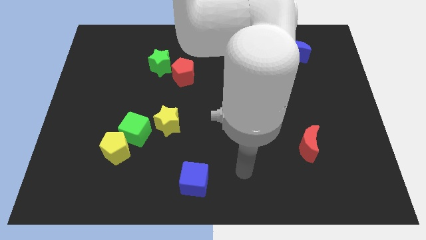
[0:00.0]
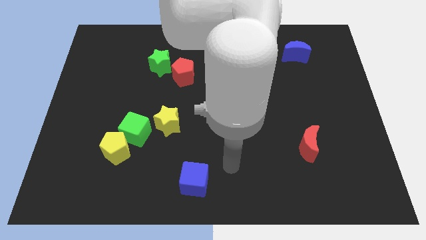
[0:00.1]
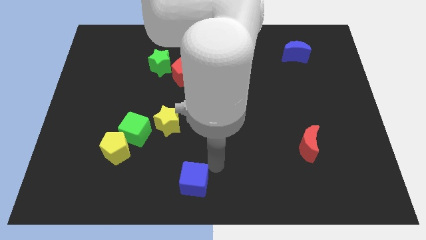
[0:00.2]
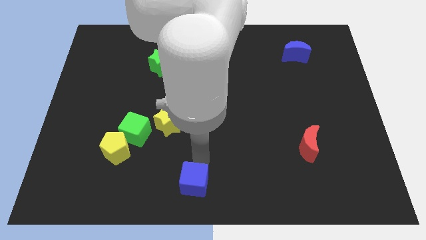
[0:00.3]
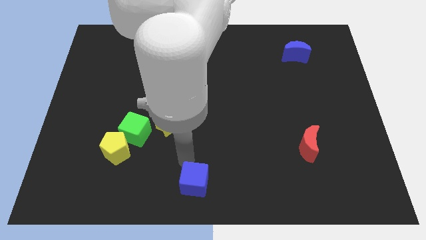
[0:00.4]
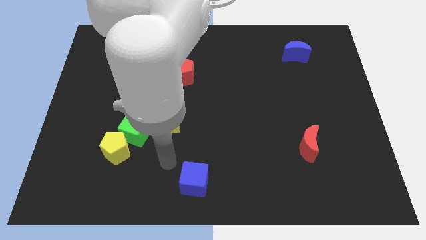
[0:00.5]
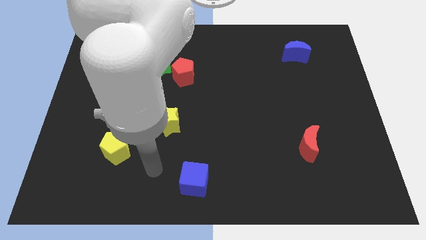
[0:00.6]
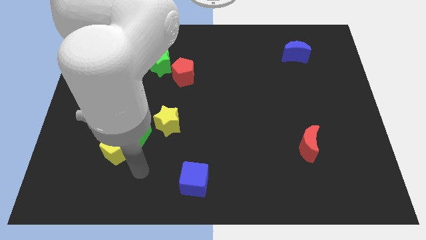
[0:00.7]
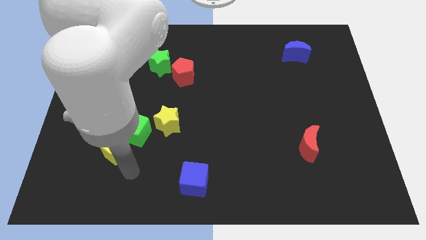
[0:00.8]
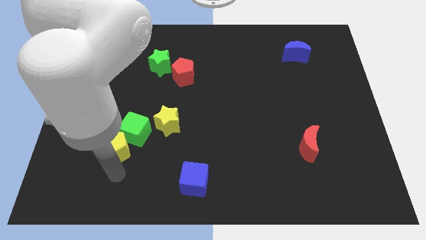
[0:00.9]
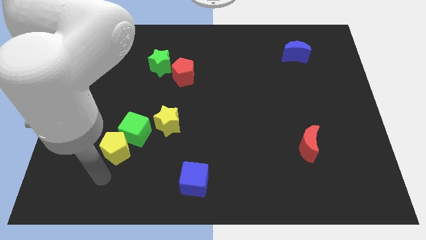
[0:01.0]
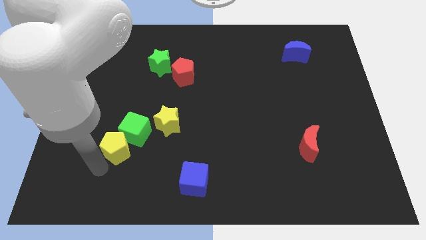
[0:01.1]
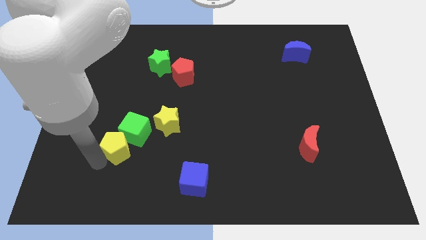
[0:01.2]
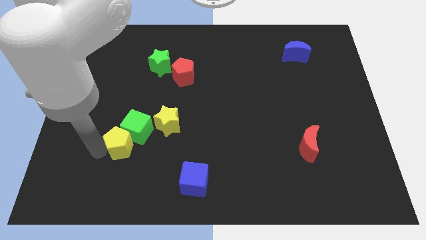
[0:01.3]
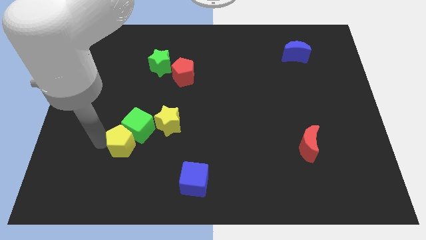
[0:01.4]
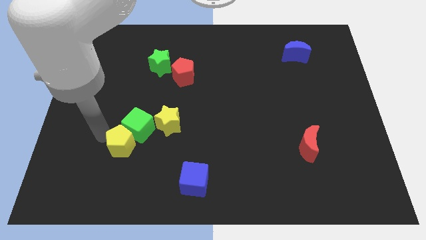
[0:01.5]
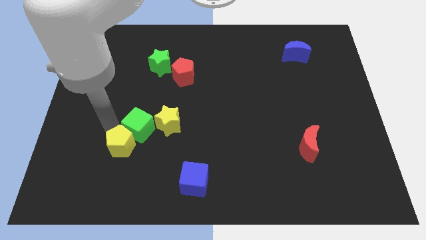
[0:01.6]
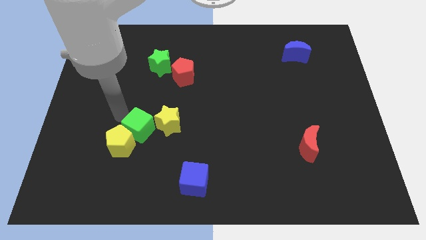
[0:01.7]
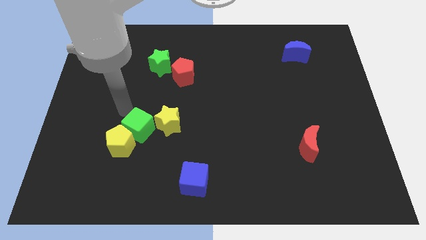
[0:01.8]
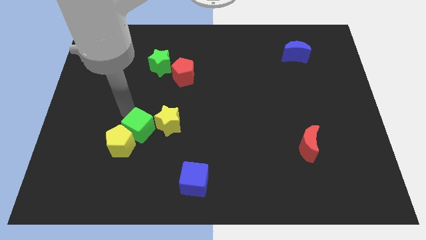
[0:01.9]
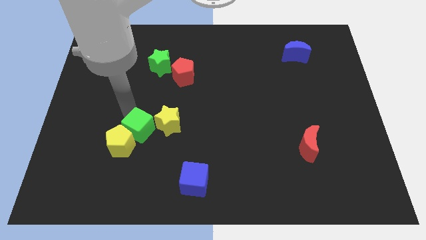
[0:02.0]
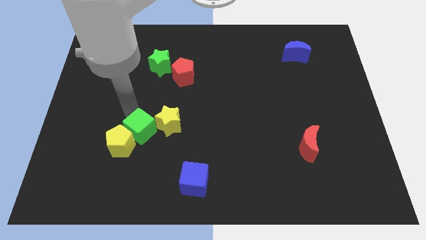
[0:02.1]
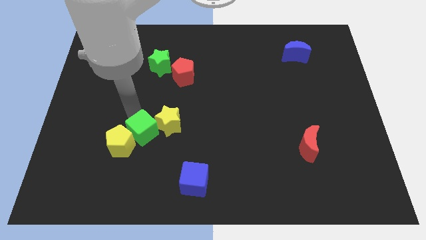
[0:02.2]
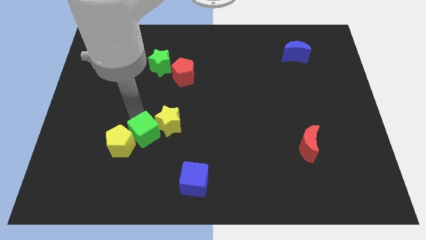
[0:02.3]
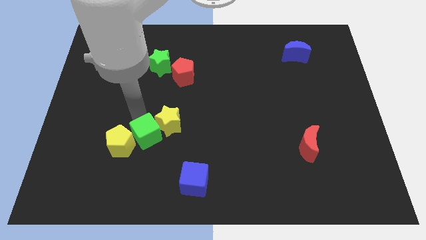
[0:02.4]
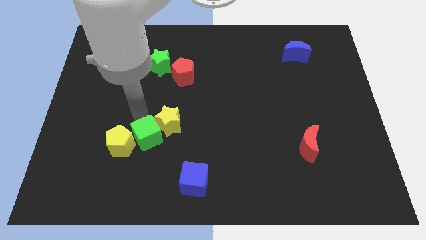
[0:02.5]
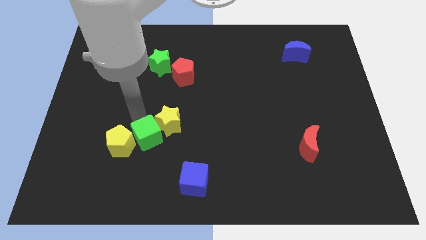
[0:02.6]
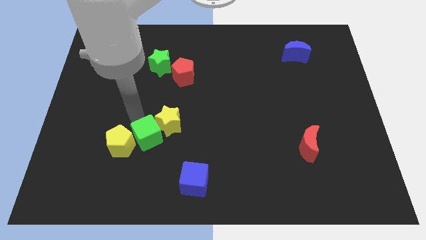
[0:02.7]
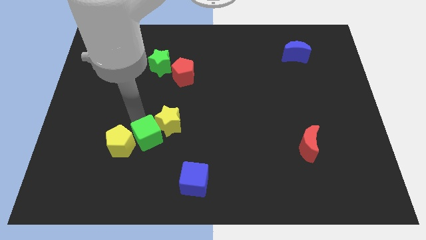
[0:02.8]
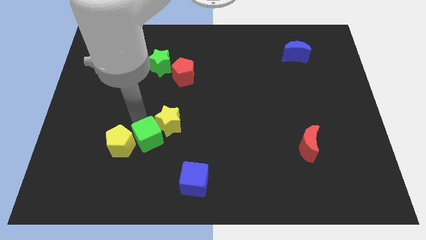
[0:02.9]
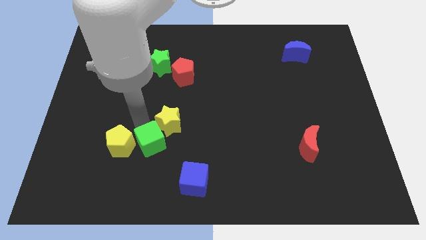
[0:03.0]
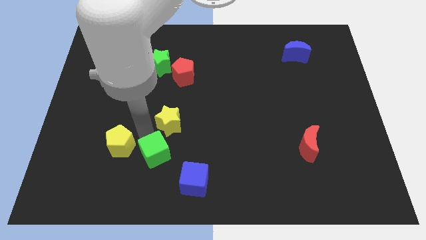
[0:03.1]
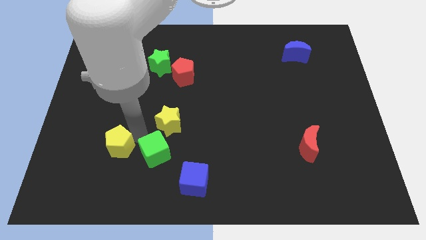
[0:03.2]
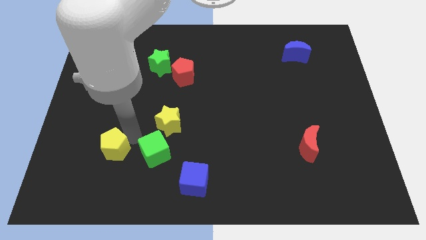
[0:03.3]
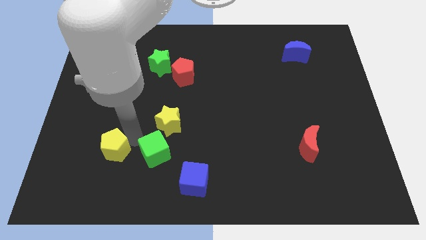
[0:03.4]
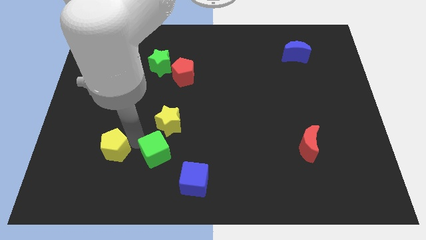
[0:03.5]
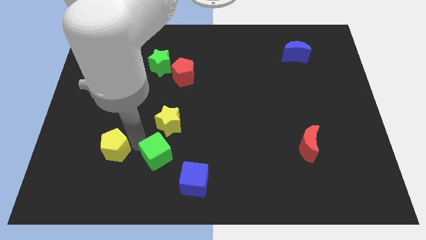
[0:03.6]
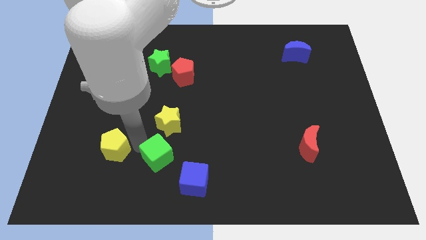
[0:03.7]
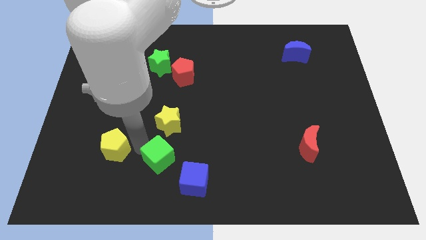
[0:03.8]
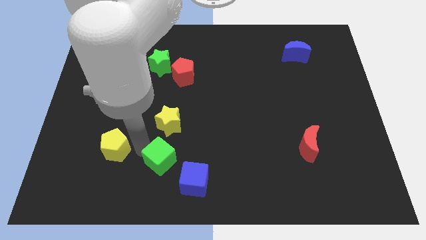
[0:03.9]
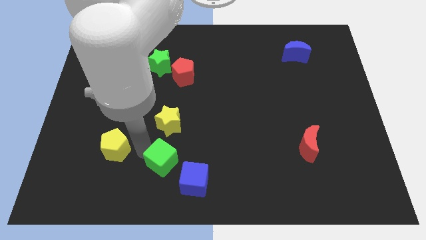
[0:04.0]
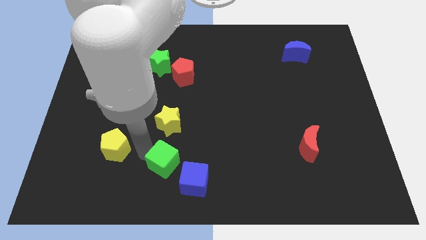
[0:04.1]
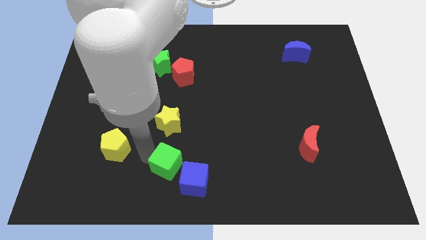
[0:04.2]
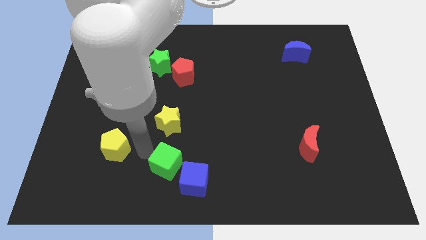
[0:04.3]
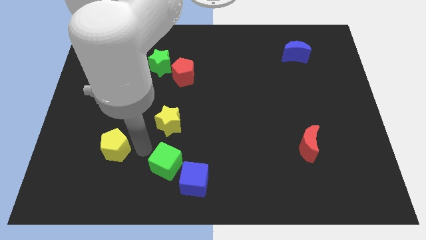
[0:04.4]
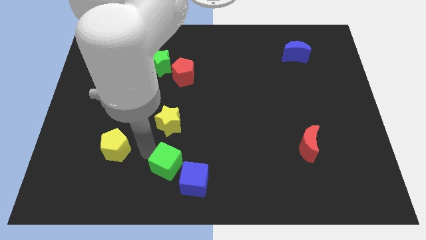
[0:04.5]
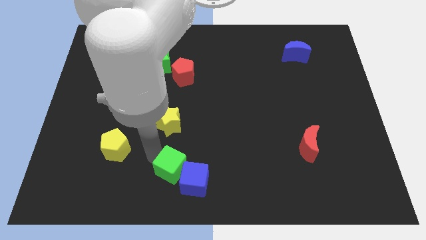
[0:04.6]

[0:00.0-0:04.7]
move the green cube next to the blue cube

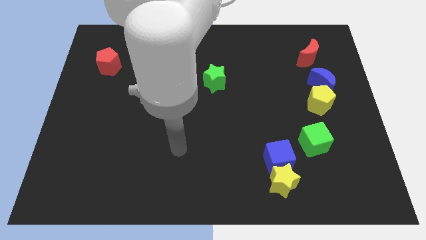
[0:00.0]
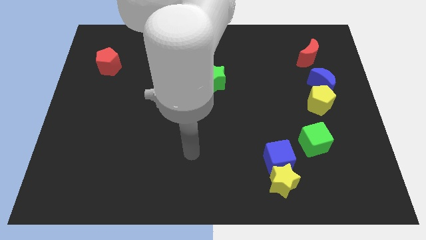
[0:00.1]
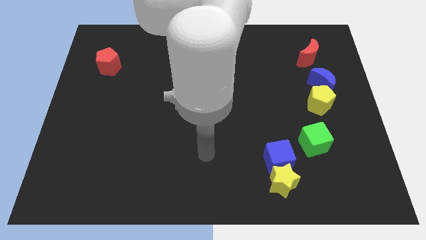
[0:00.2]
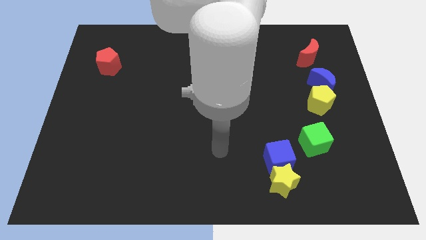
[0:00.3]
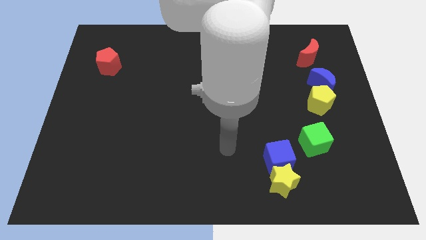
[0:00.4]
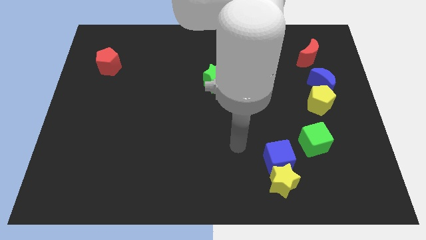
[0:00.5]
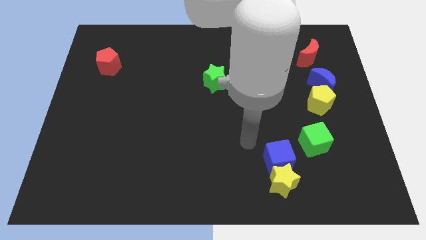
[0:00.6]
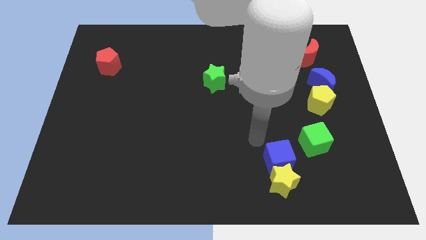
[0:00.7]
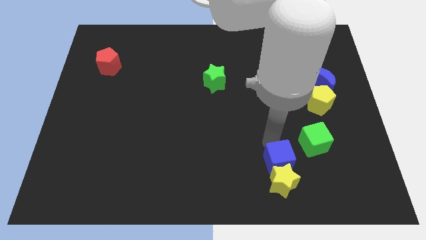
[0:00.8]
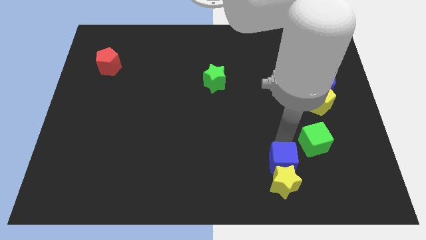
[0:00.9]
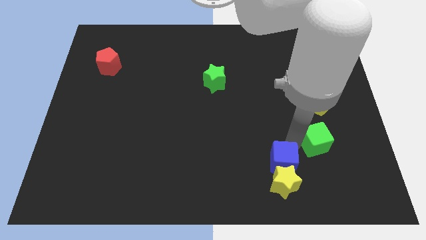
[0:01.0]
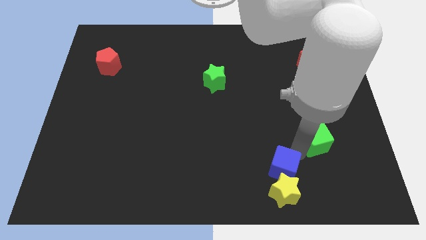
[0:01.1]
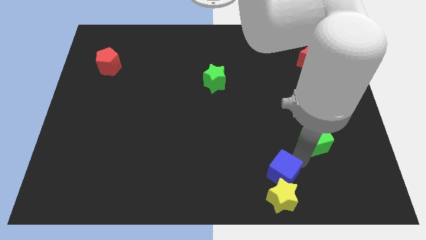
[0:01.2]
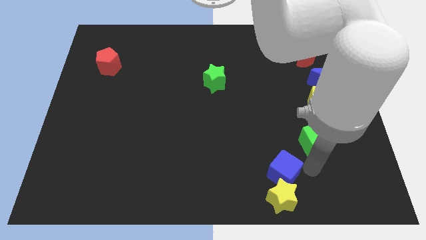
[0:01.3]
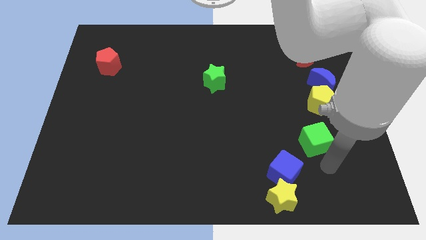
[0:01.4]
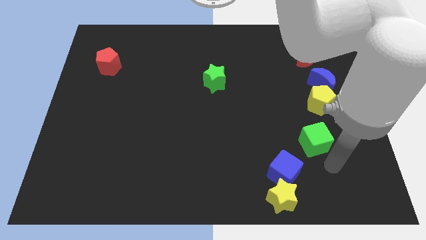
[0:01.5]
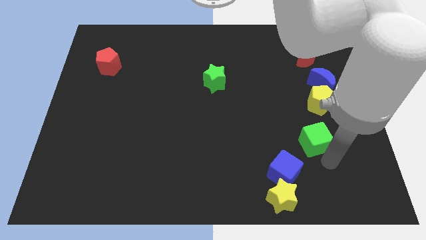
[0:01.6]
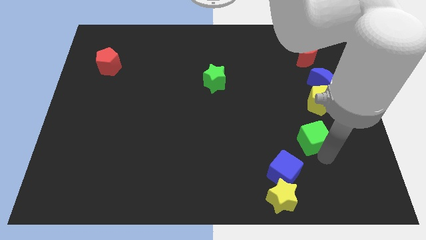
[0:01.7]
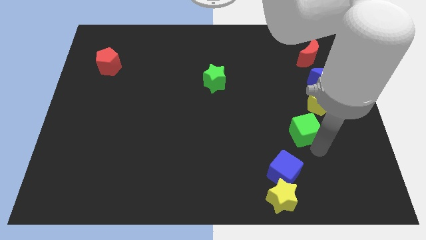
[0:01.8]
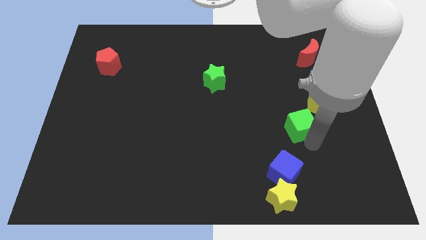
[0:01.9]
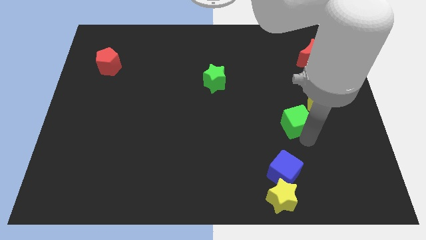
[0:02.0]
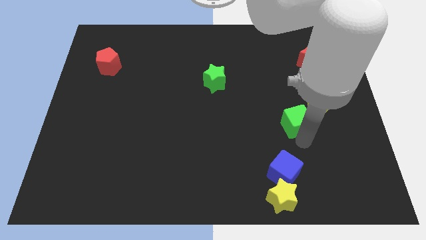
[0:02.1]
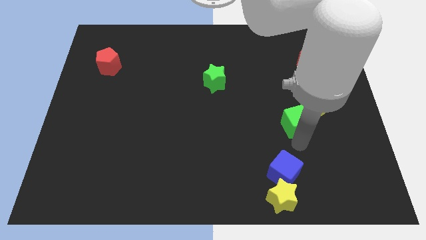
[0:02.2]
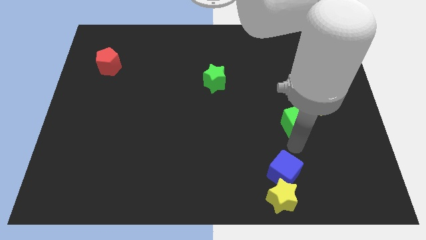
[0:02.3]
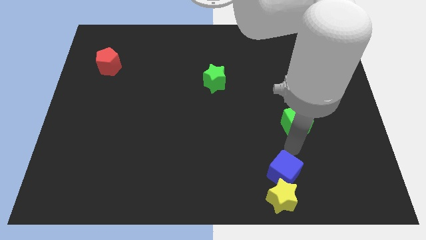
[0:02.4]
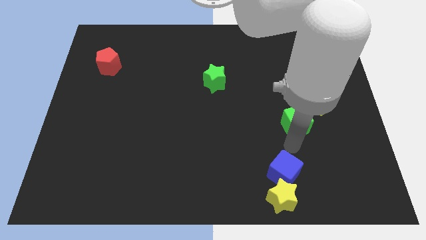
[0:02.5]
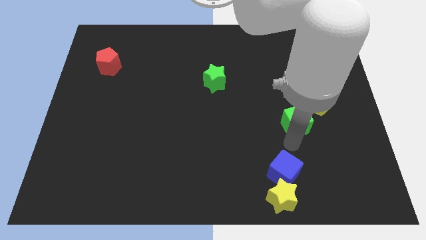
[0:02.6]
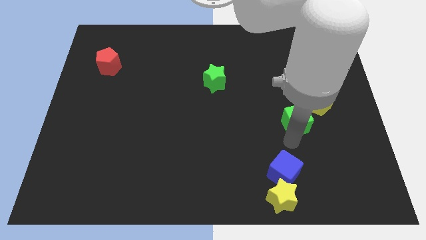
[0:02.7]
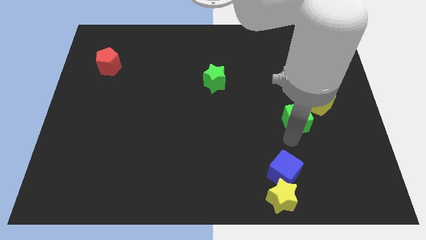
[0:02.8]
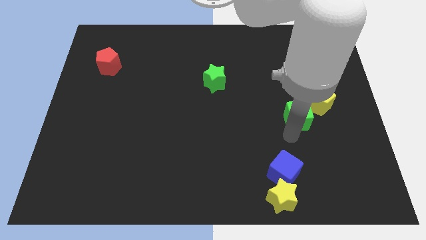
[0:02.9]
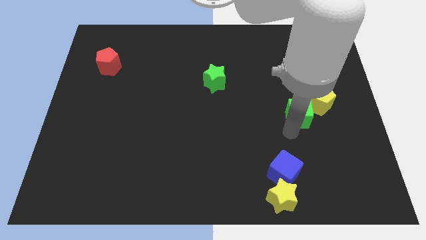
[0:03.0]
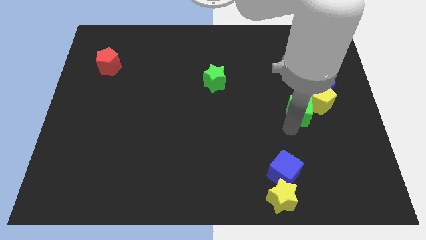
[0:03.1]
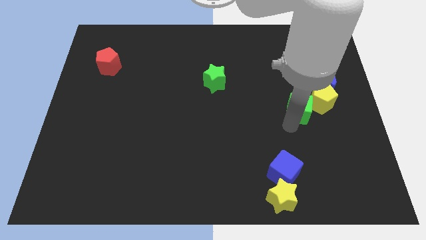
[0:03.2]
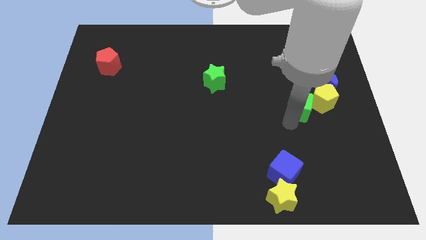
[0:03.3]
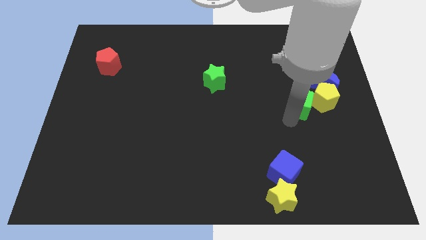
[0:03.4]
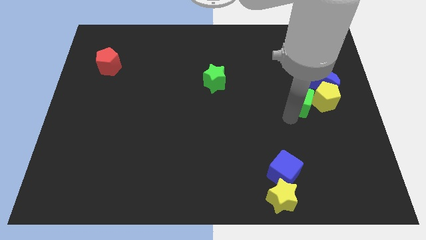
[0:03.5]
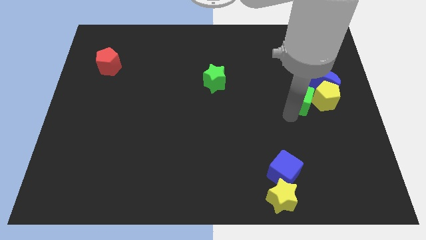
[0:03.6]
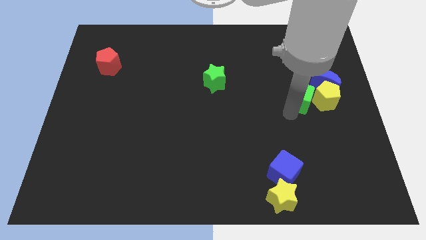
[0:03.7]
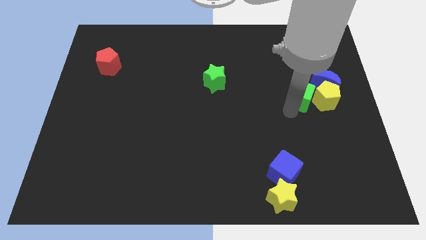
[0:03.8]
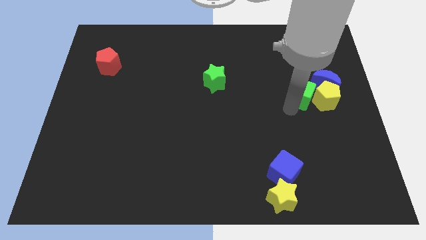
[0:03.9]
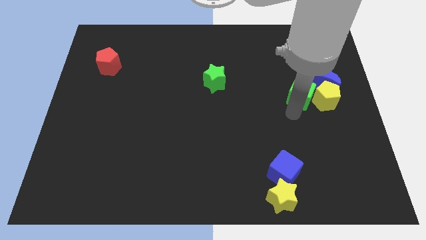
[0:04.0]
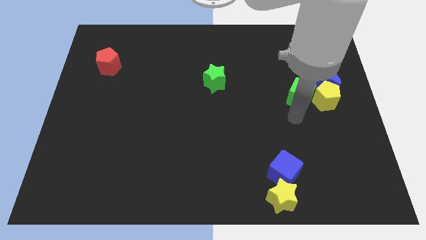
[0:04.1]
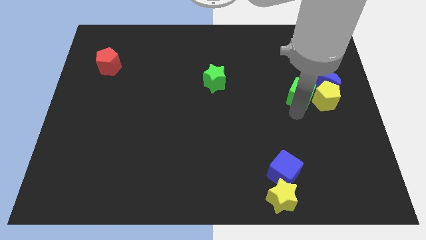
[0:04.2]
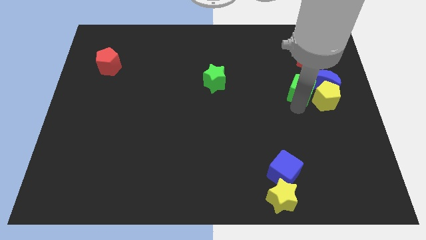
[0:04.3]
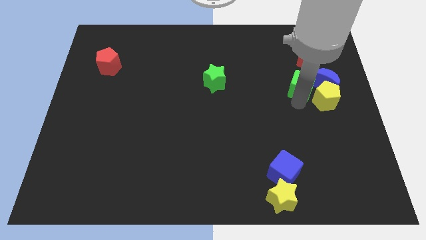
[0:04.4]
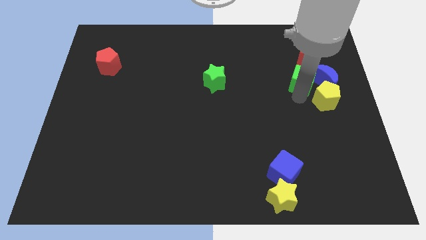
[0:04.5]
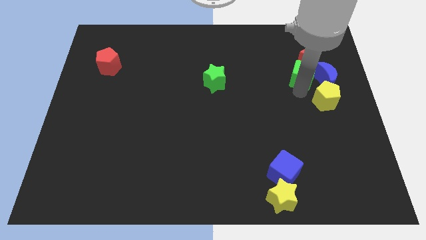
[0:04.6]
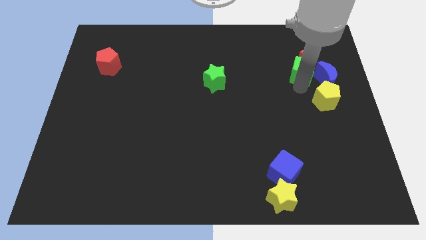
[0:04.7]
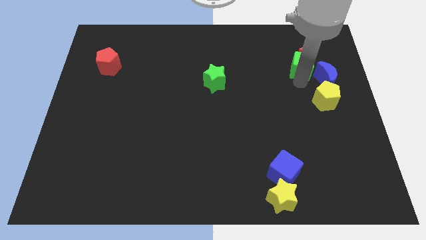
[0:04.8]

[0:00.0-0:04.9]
move the green cube towards the red moon
